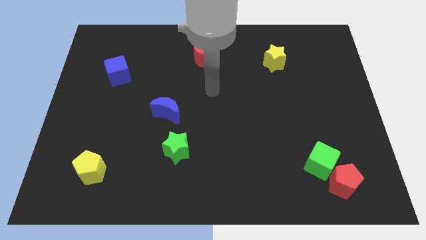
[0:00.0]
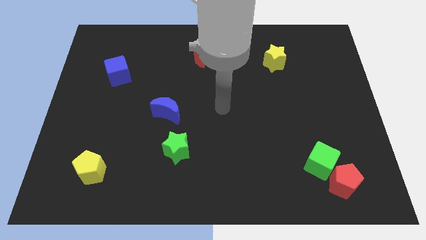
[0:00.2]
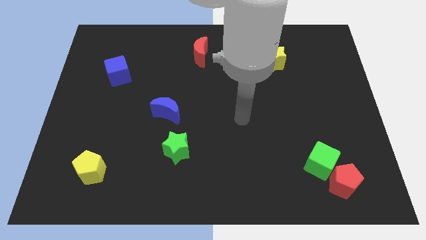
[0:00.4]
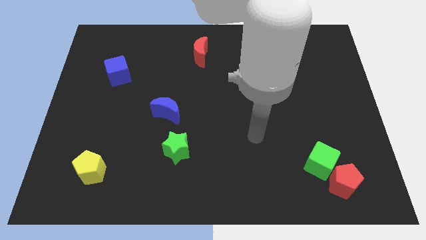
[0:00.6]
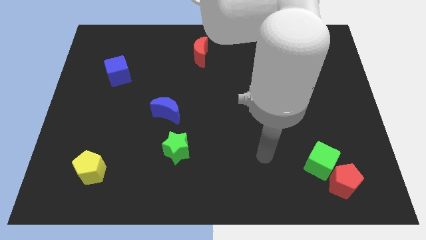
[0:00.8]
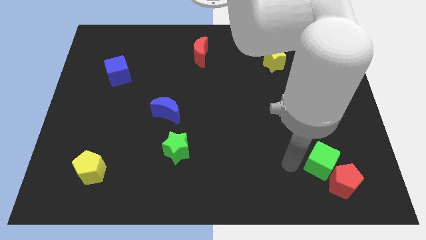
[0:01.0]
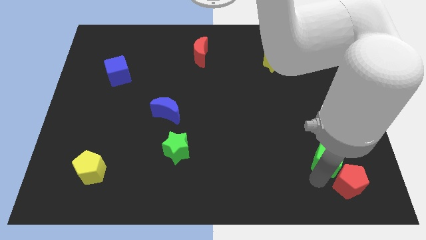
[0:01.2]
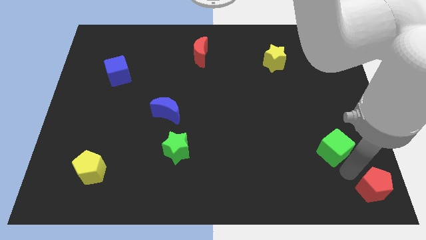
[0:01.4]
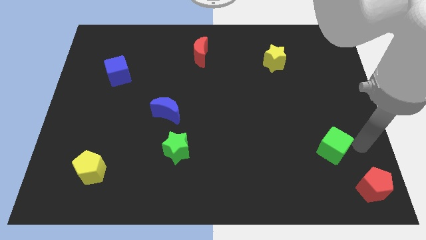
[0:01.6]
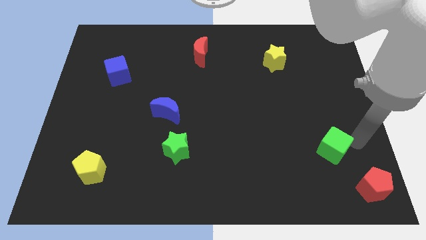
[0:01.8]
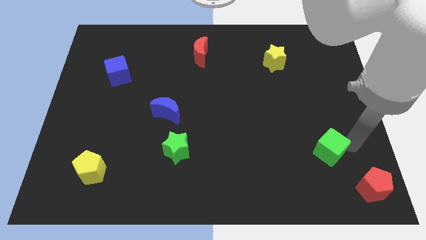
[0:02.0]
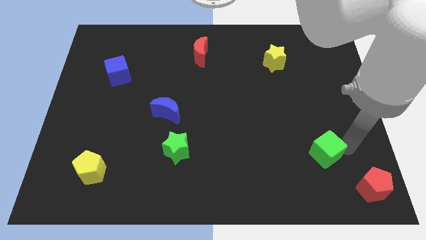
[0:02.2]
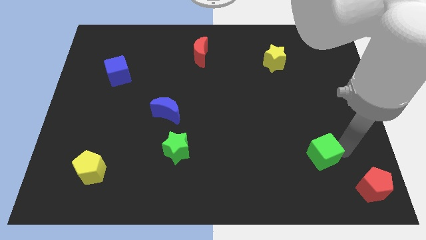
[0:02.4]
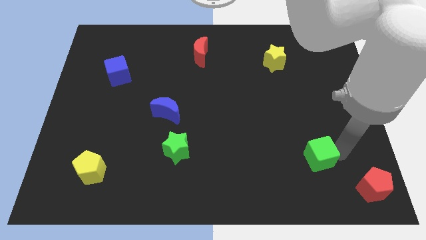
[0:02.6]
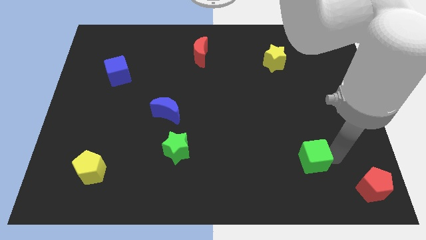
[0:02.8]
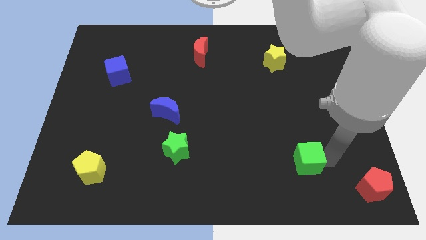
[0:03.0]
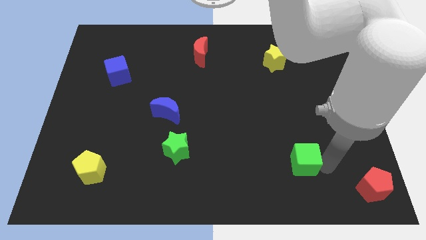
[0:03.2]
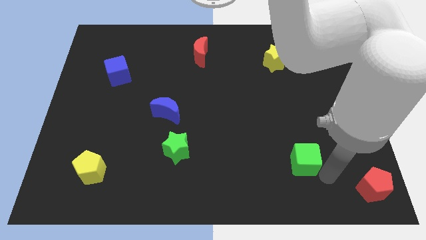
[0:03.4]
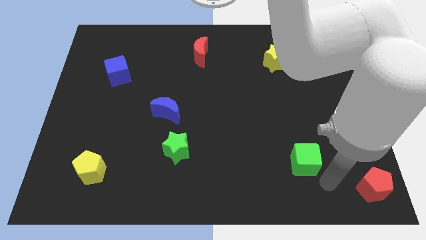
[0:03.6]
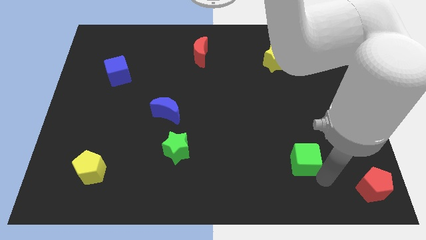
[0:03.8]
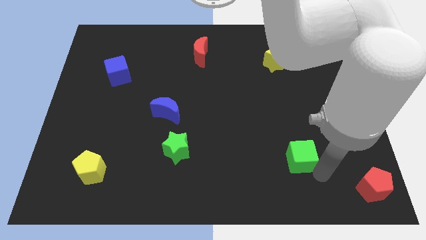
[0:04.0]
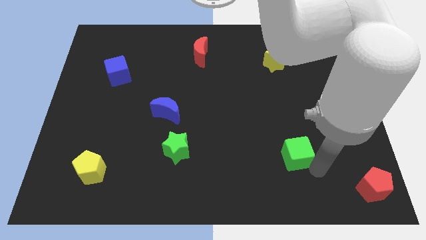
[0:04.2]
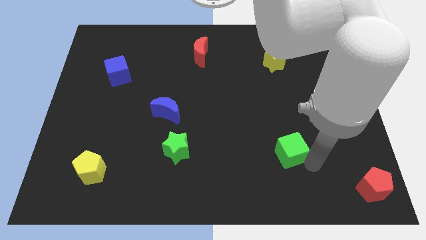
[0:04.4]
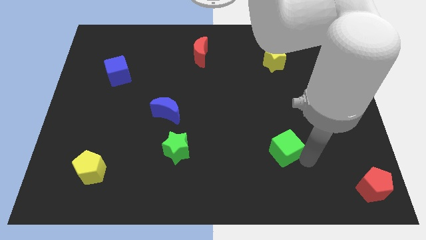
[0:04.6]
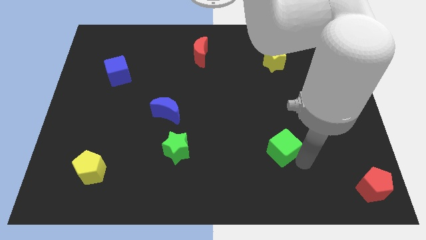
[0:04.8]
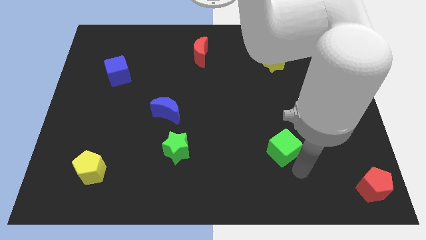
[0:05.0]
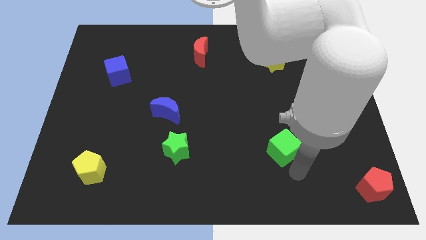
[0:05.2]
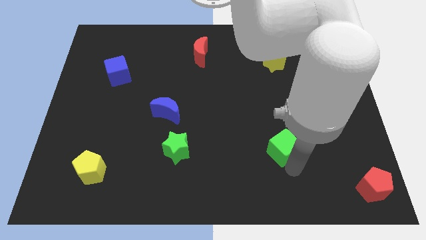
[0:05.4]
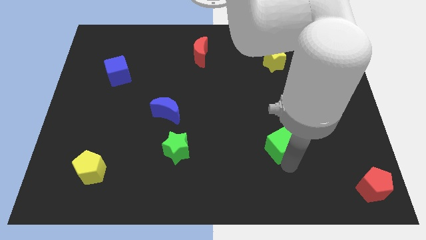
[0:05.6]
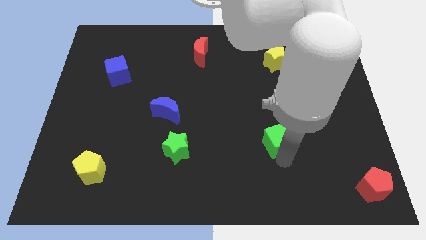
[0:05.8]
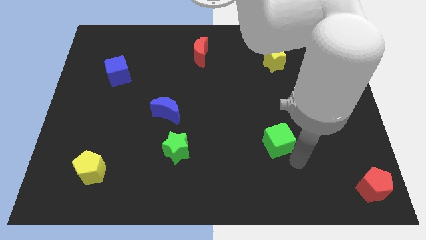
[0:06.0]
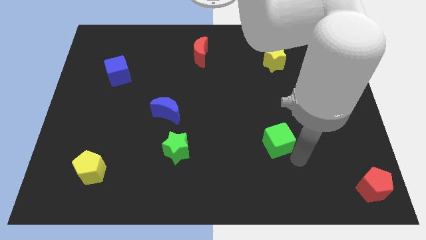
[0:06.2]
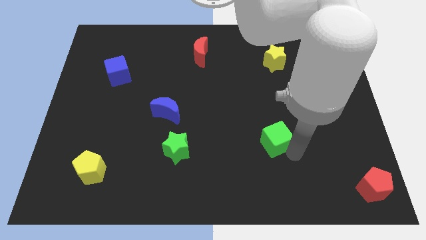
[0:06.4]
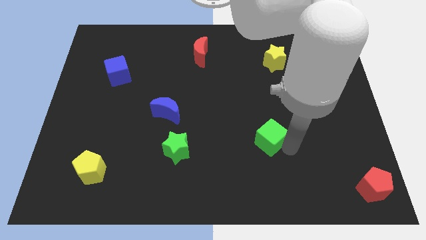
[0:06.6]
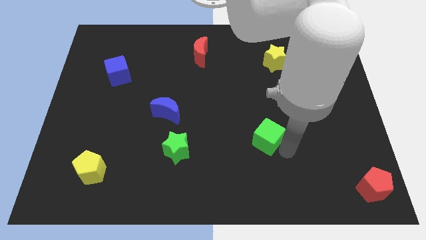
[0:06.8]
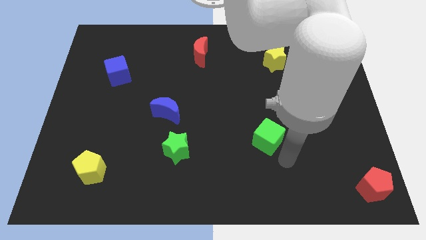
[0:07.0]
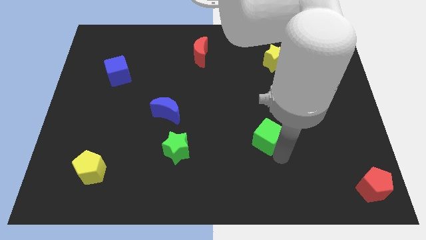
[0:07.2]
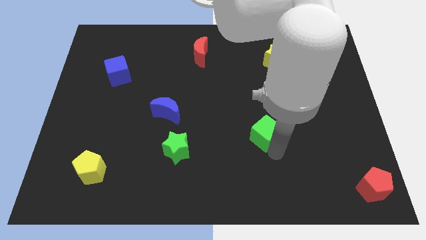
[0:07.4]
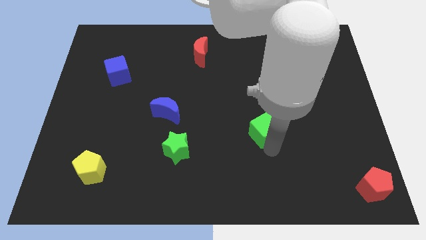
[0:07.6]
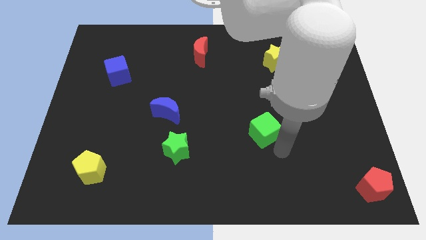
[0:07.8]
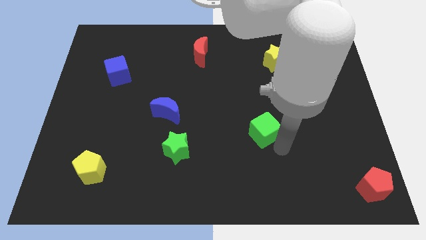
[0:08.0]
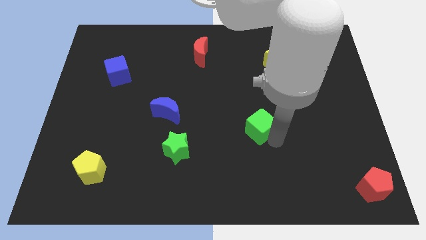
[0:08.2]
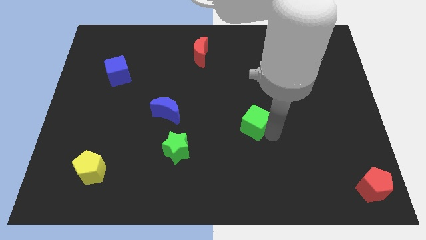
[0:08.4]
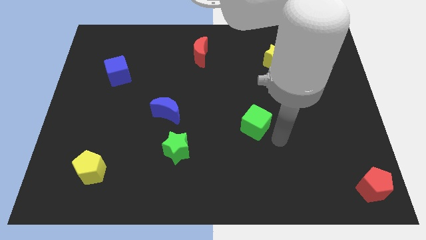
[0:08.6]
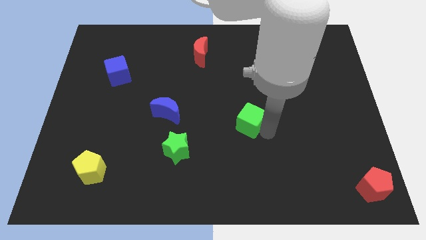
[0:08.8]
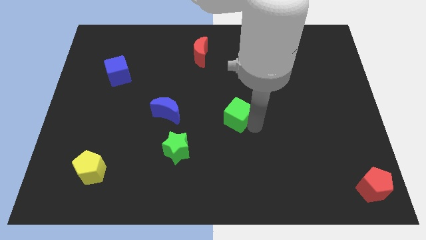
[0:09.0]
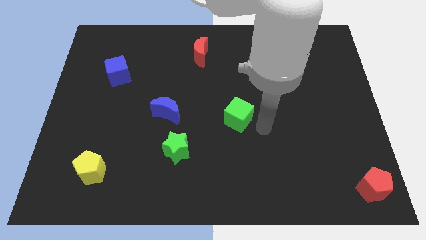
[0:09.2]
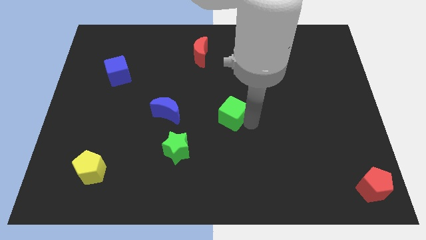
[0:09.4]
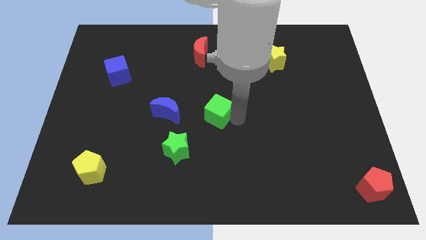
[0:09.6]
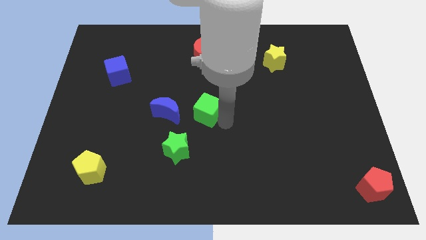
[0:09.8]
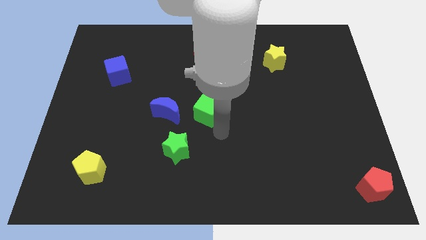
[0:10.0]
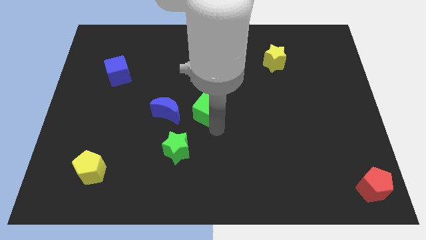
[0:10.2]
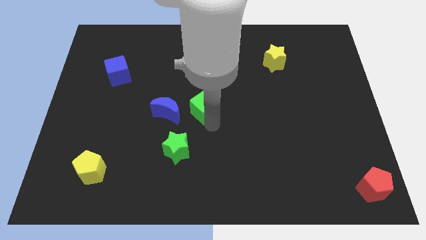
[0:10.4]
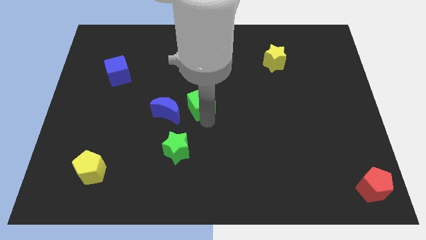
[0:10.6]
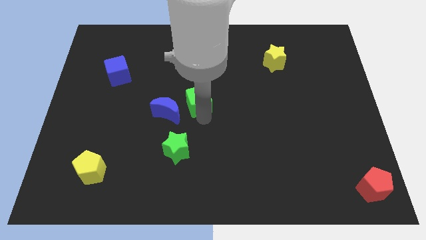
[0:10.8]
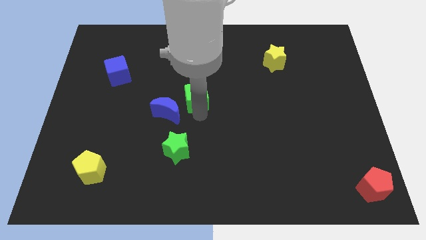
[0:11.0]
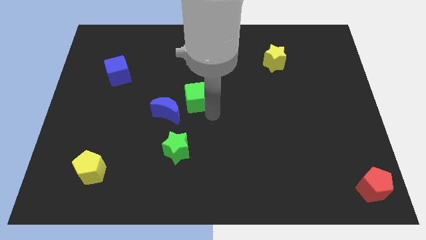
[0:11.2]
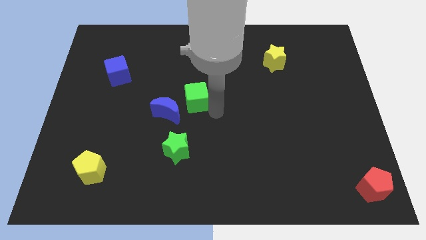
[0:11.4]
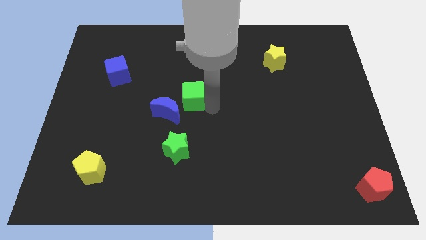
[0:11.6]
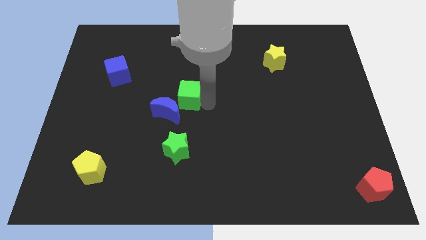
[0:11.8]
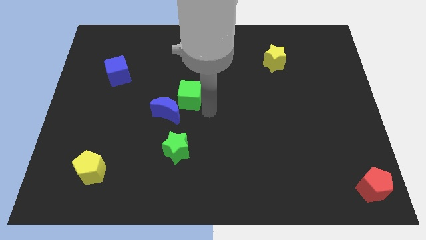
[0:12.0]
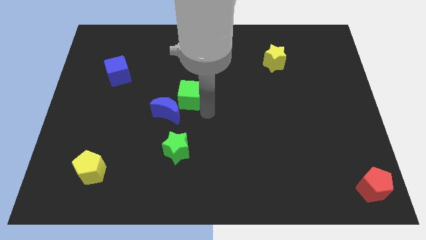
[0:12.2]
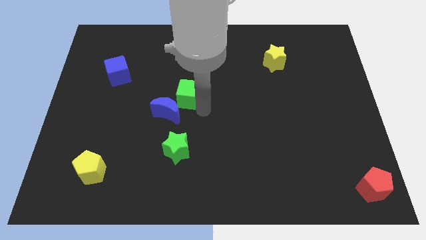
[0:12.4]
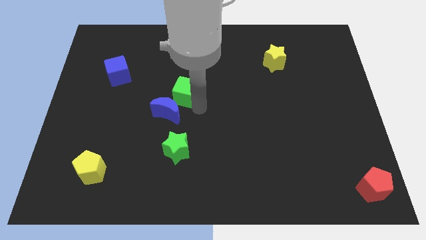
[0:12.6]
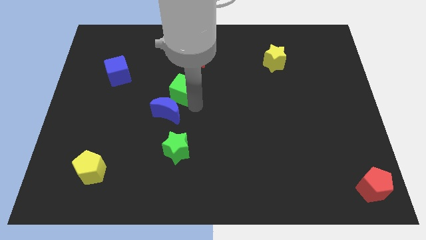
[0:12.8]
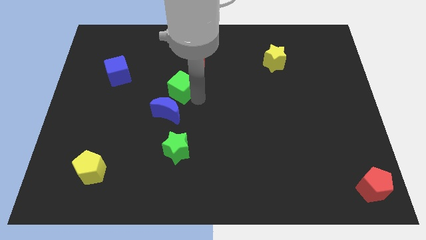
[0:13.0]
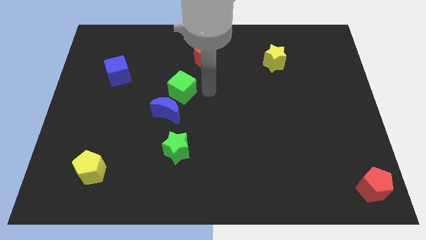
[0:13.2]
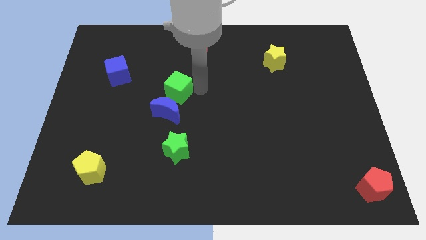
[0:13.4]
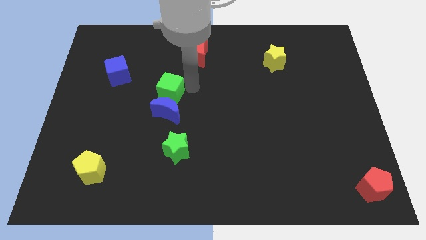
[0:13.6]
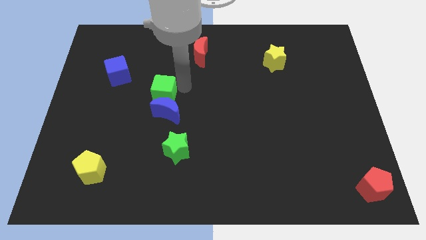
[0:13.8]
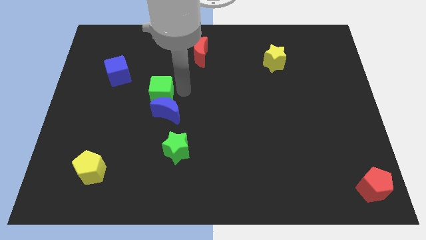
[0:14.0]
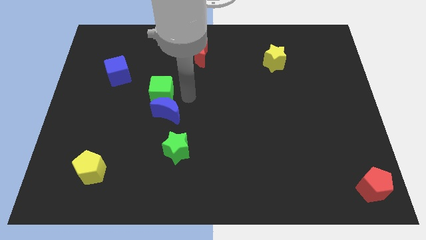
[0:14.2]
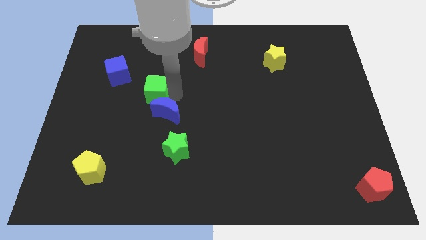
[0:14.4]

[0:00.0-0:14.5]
move the green cube diagonally down and to the right of the blue cube
